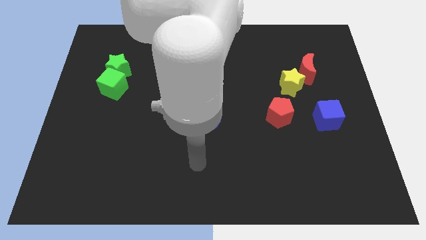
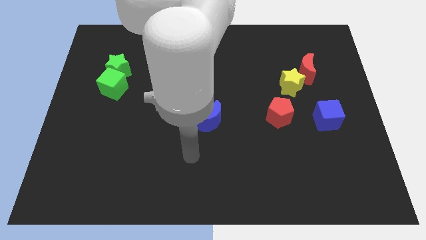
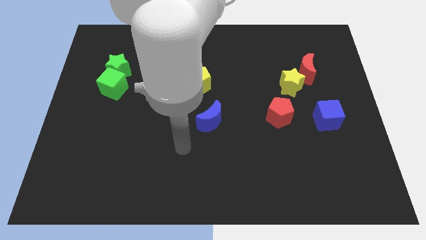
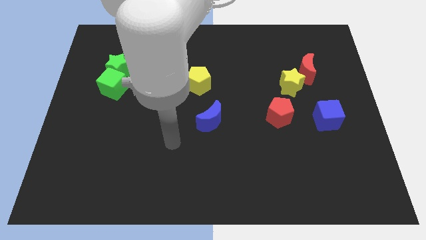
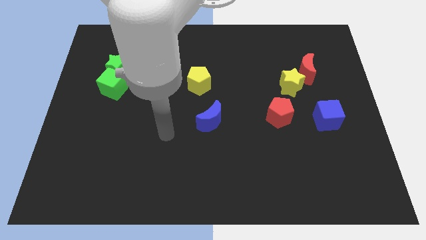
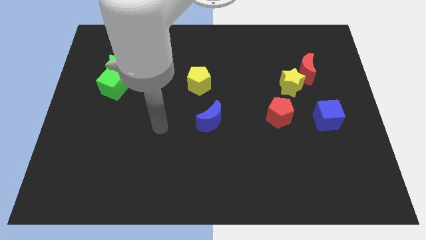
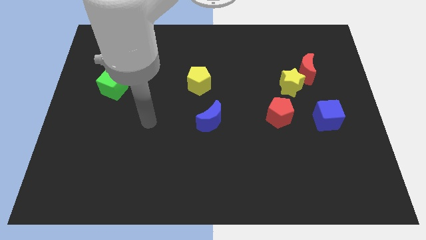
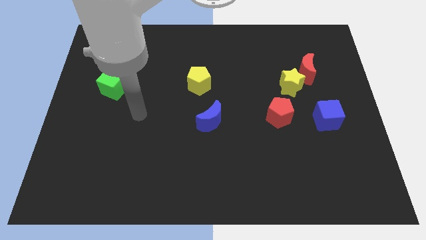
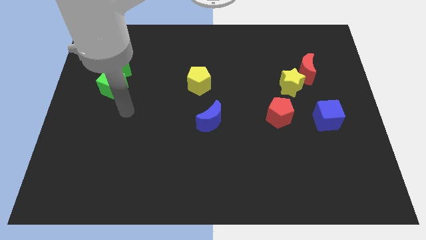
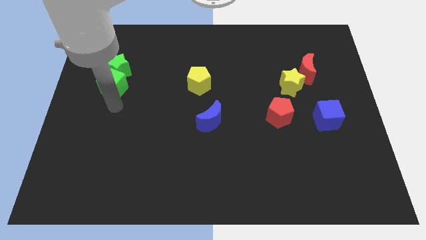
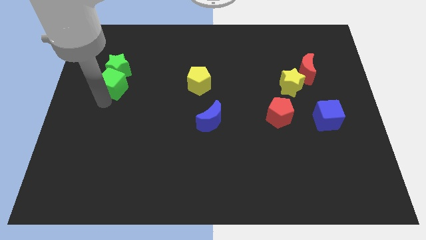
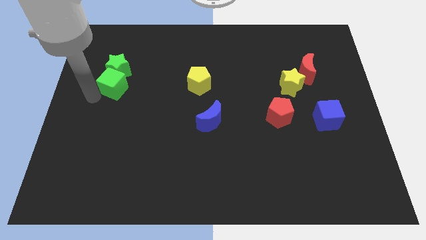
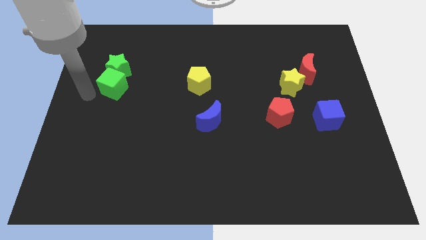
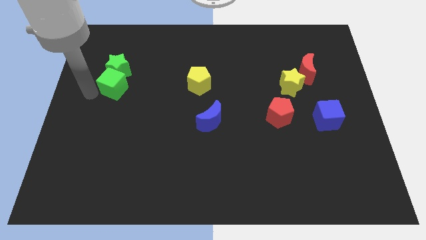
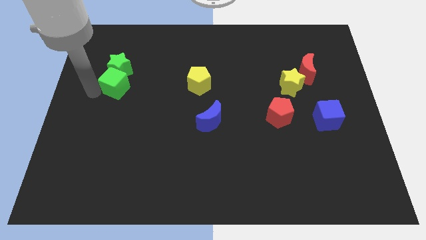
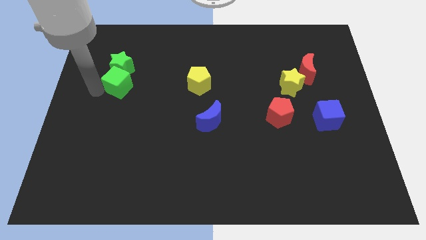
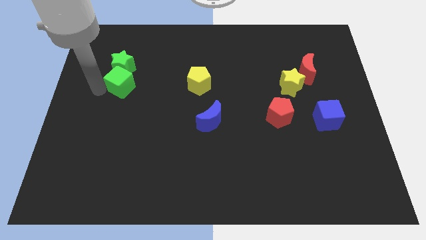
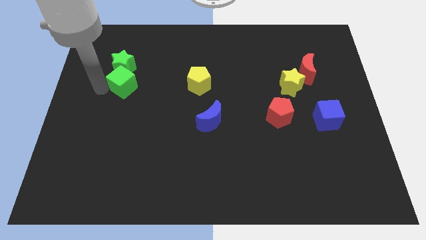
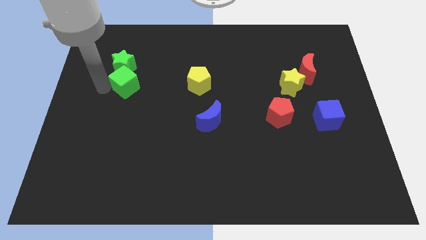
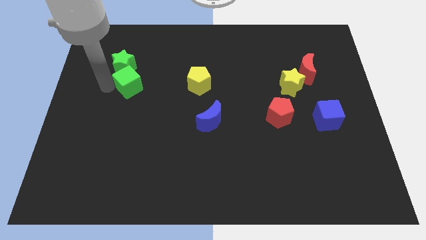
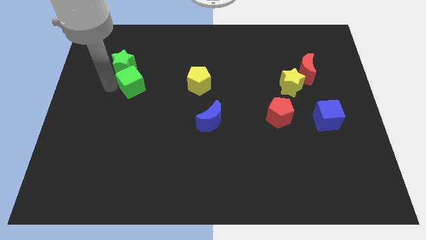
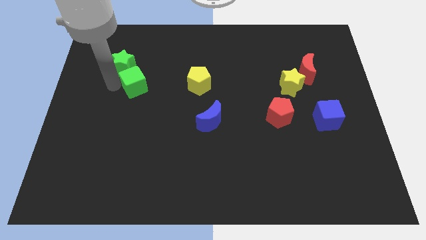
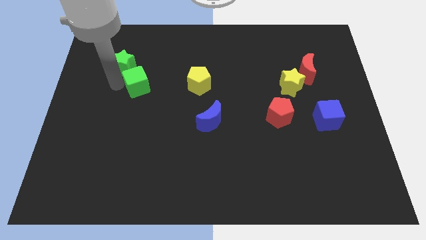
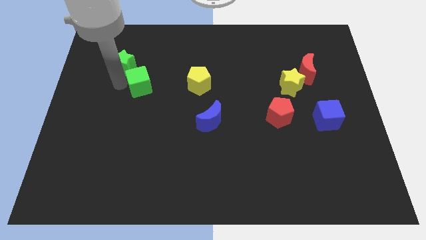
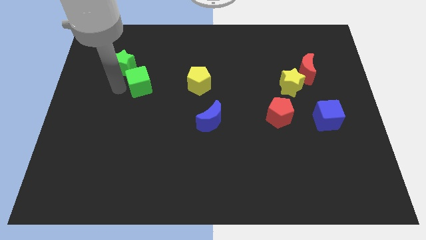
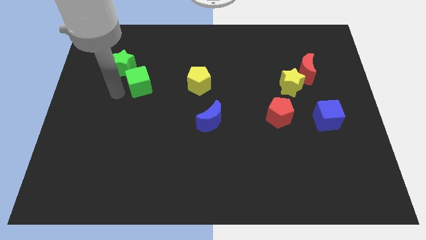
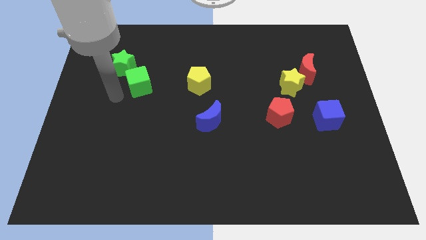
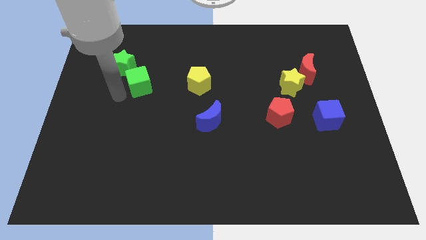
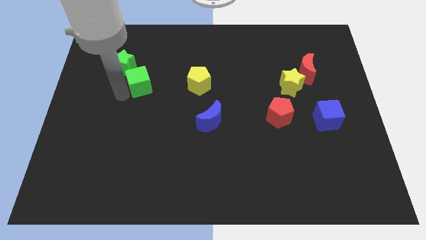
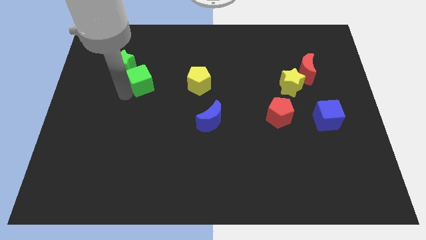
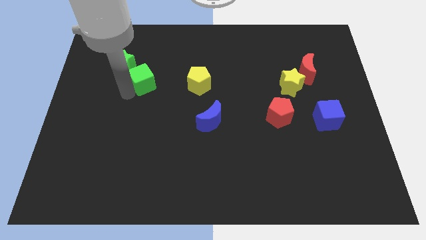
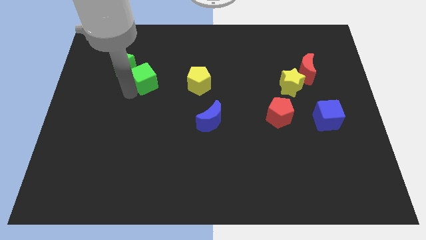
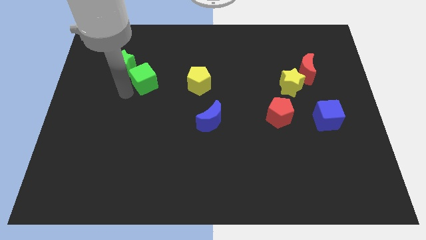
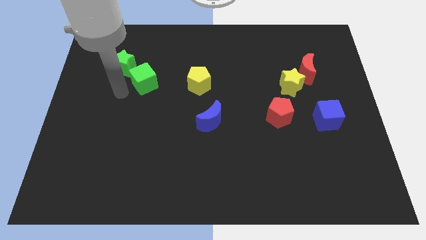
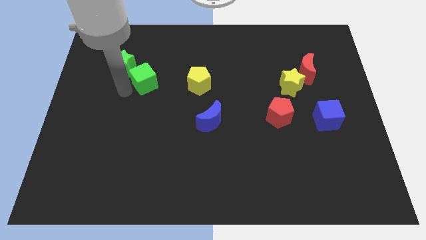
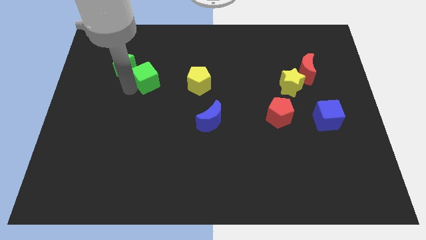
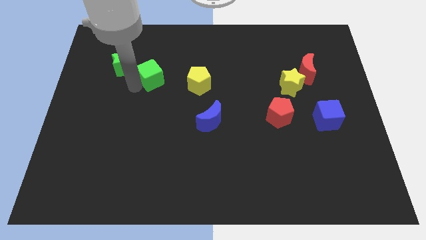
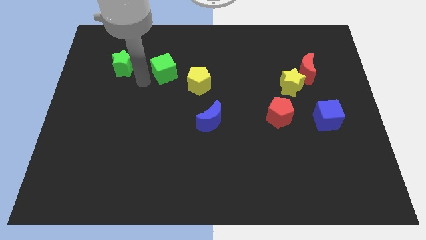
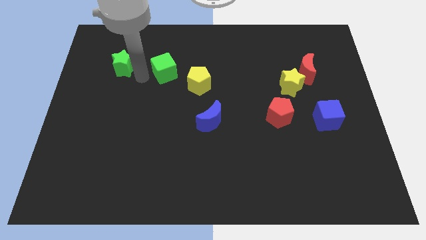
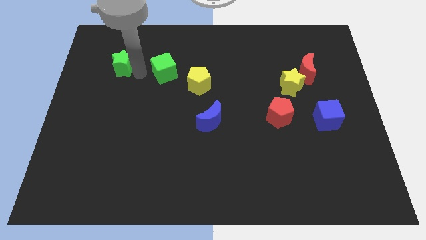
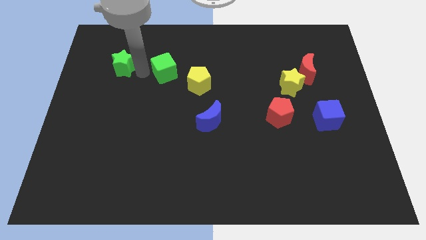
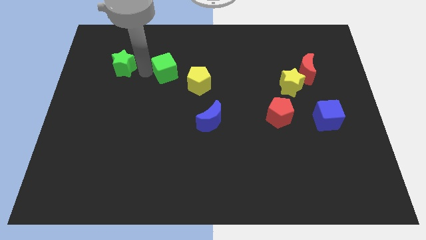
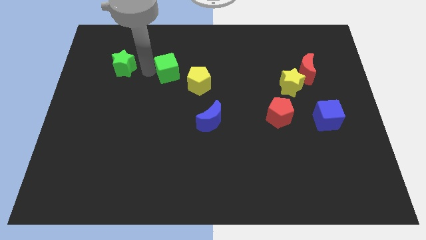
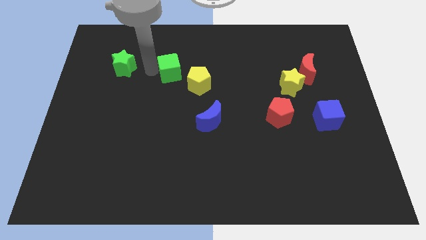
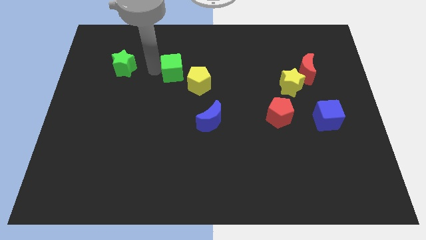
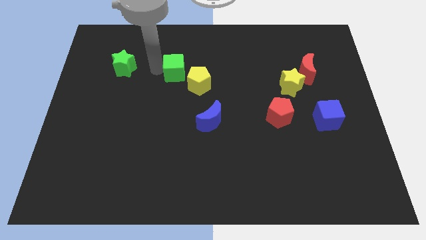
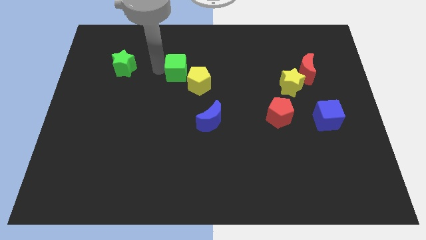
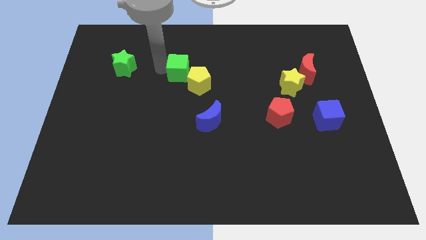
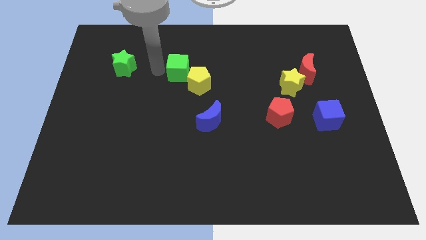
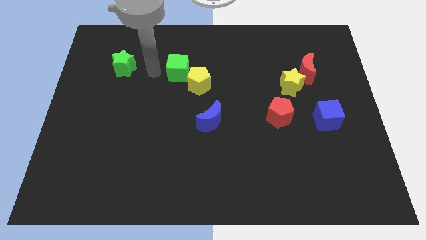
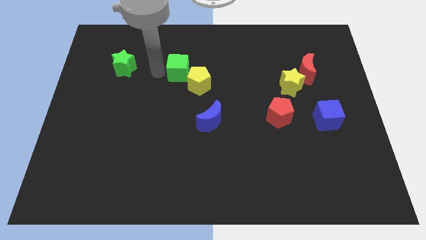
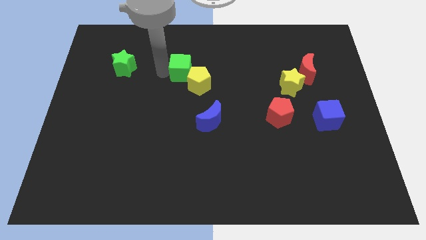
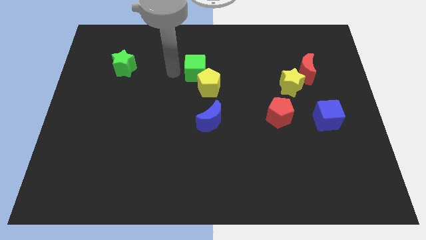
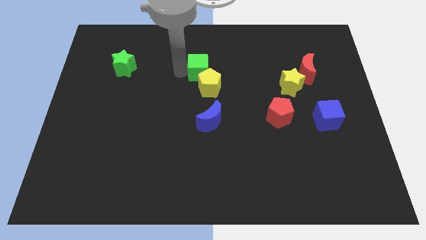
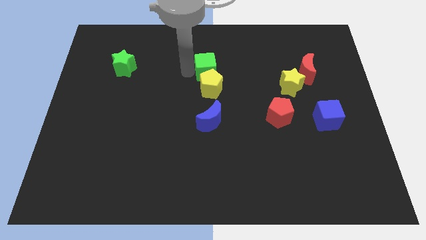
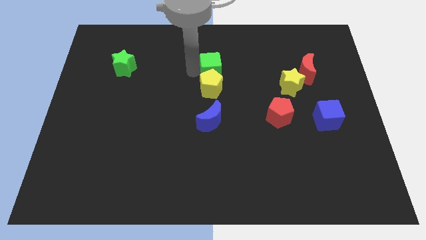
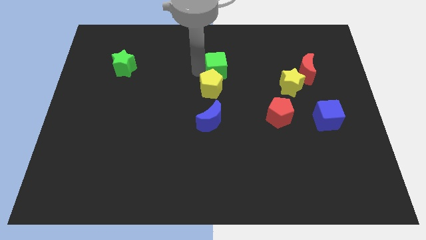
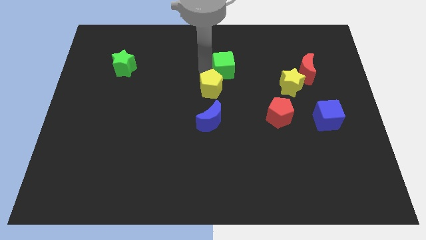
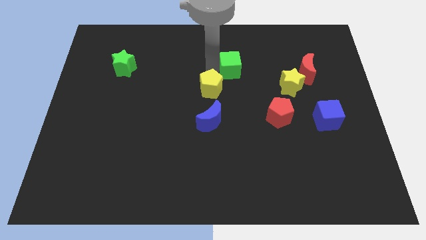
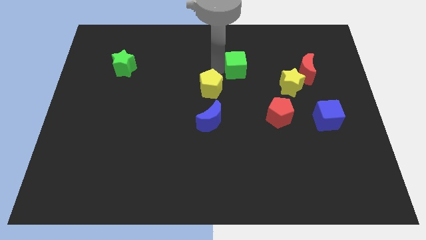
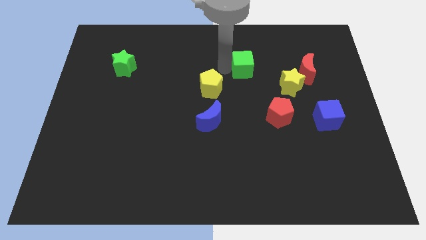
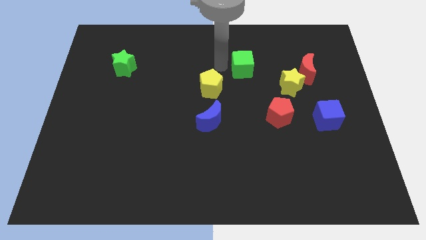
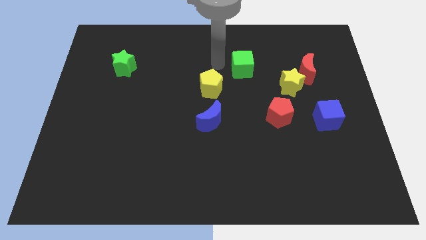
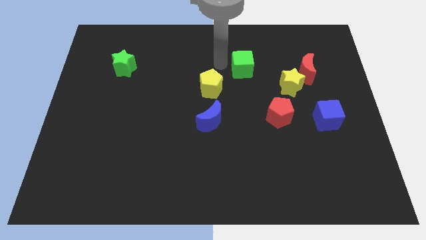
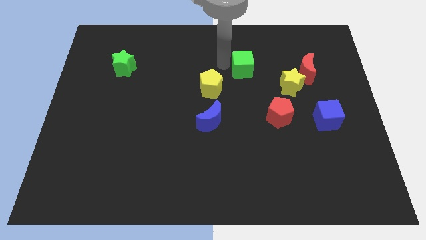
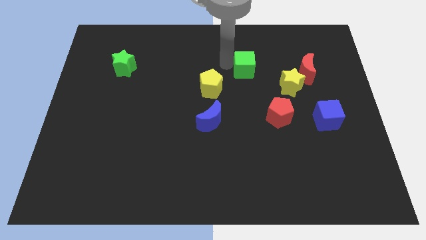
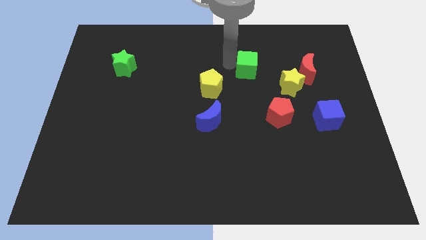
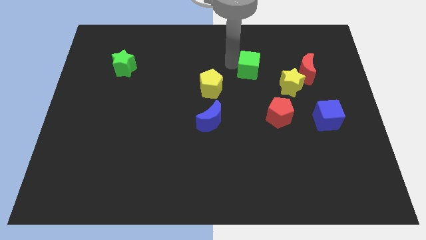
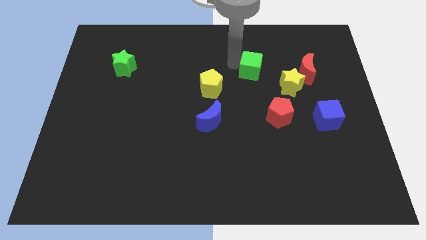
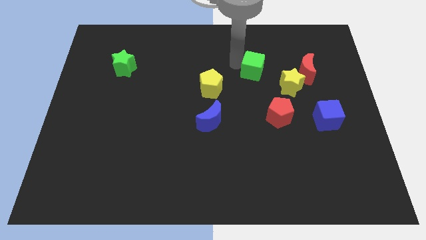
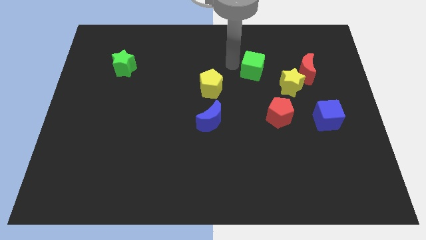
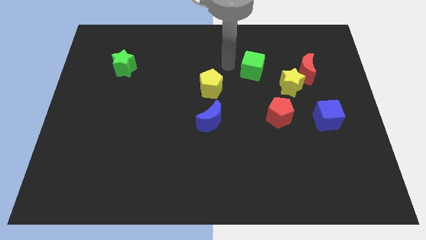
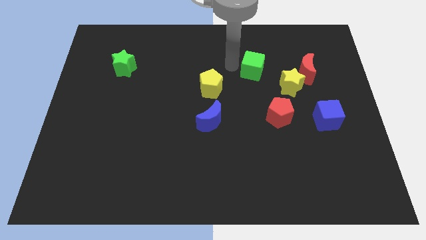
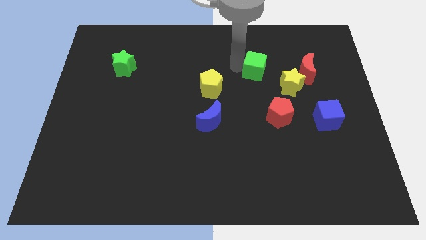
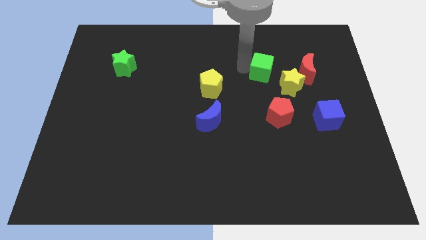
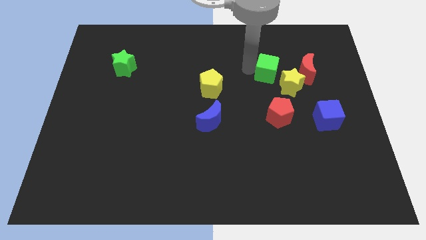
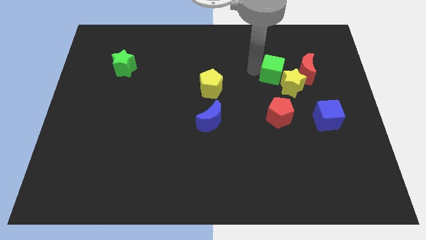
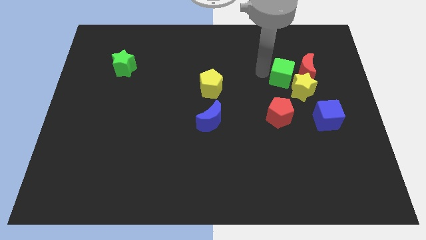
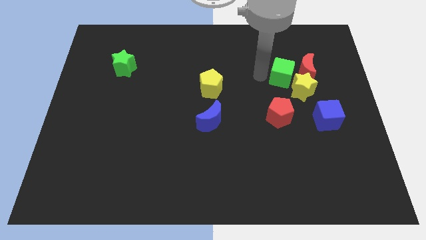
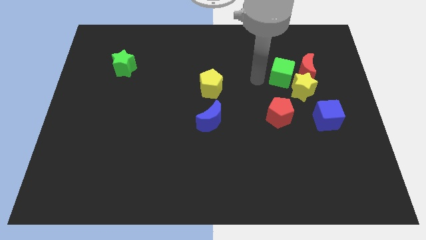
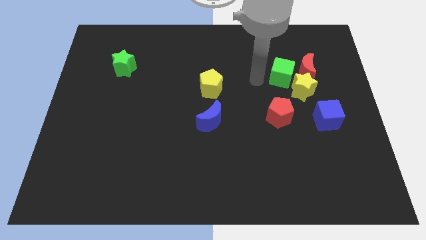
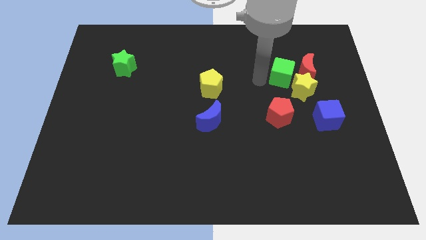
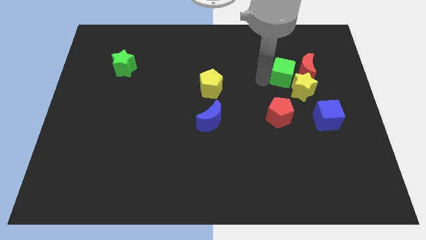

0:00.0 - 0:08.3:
slide the green cube close to the red moon
